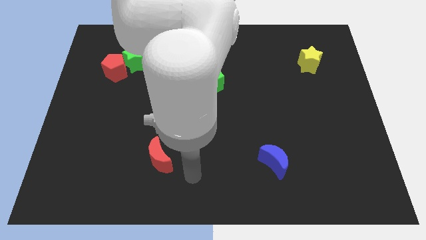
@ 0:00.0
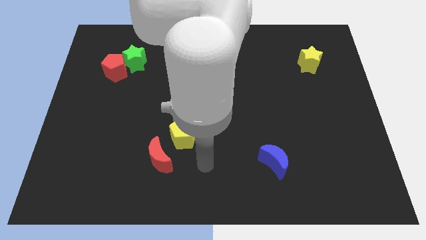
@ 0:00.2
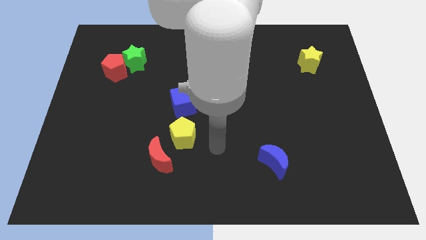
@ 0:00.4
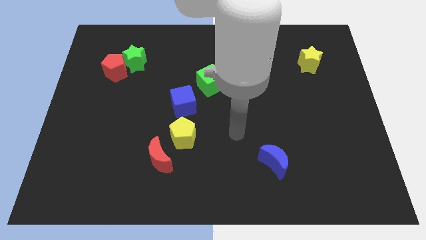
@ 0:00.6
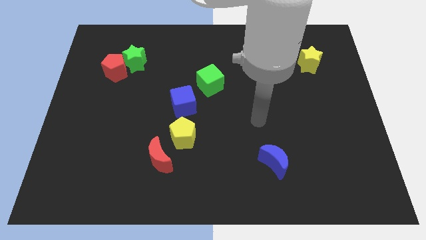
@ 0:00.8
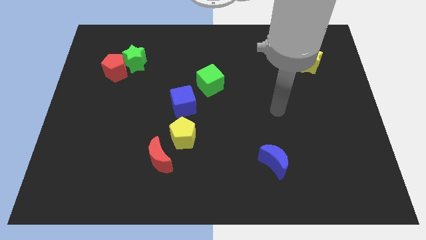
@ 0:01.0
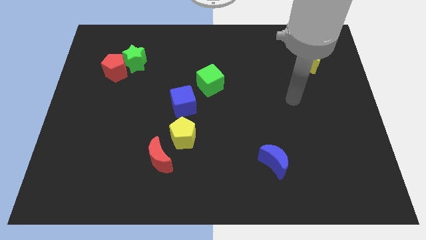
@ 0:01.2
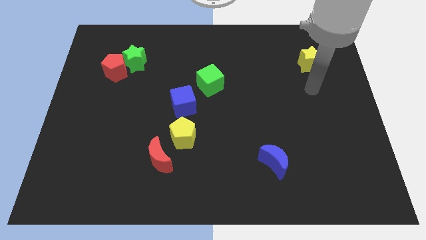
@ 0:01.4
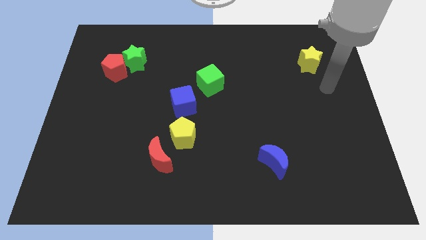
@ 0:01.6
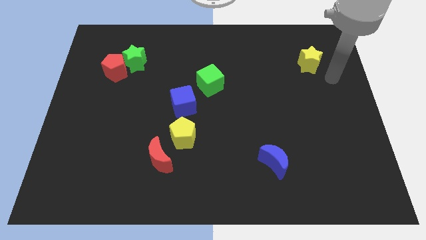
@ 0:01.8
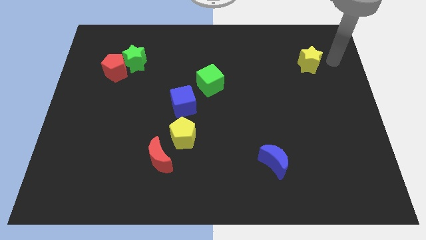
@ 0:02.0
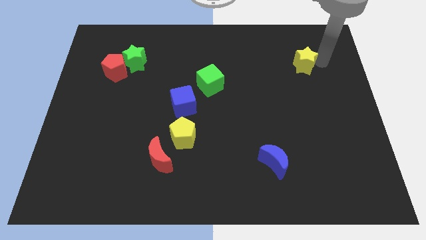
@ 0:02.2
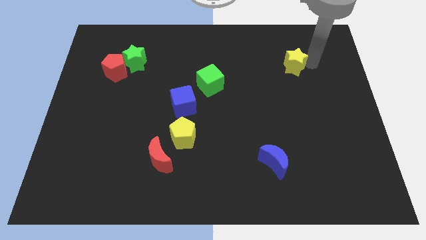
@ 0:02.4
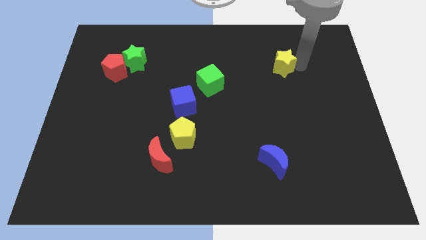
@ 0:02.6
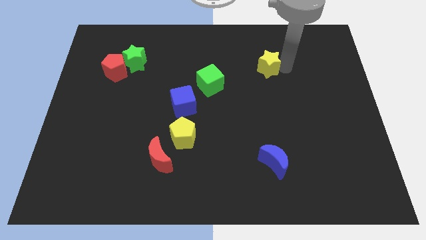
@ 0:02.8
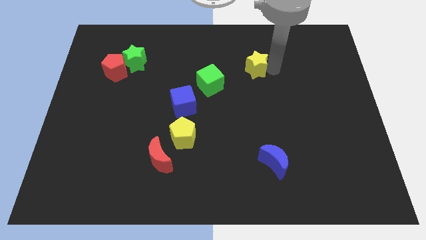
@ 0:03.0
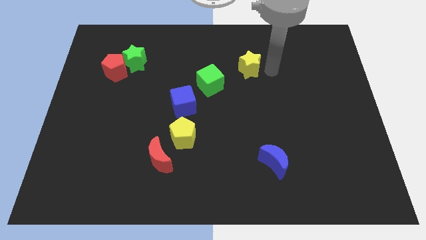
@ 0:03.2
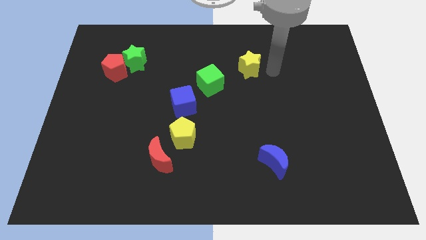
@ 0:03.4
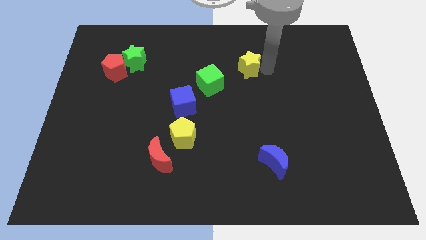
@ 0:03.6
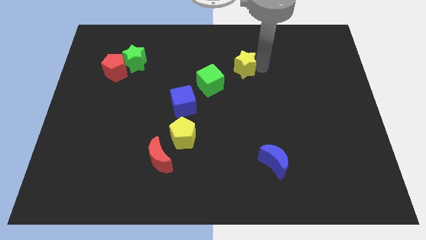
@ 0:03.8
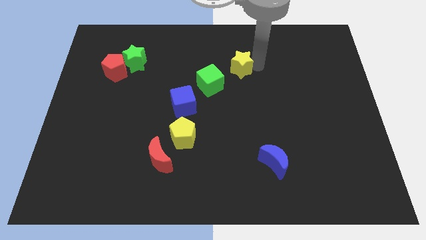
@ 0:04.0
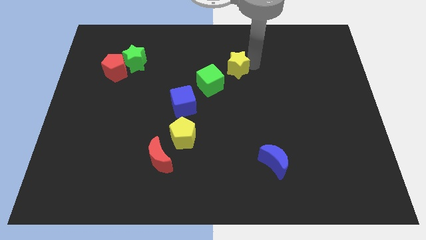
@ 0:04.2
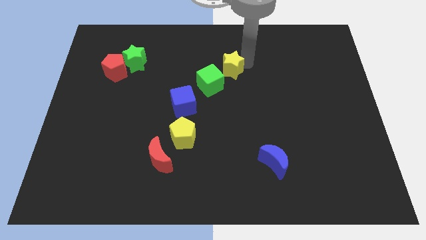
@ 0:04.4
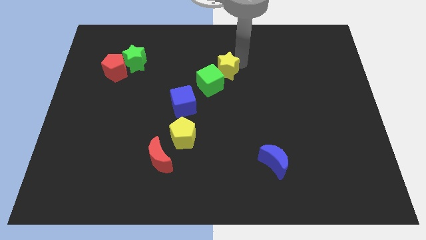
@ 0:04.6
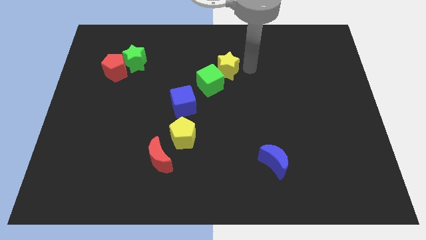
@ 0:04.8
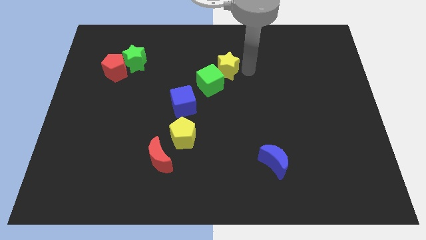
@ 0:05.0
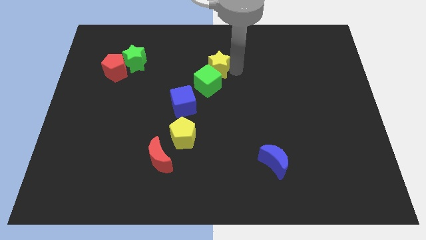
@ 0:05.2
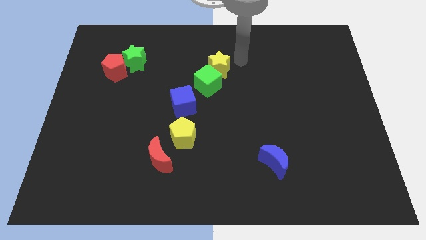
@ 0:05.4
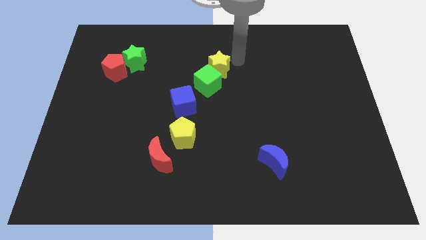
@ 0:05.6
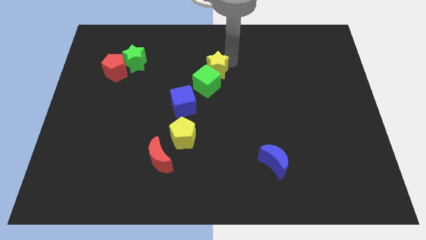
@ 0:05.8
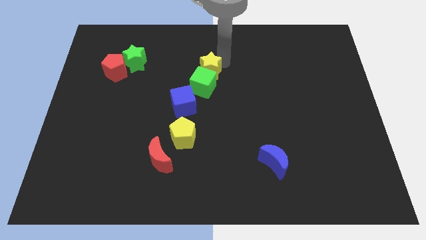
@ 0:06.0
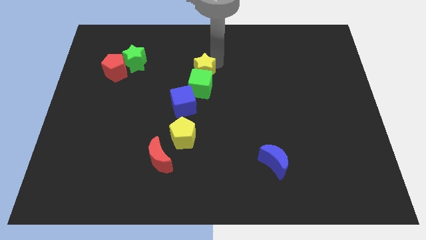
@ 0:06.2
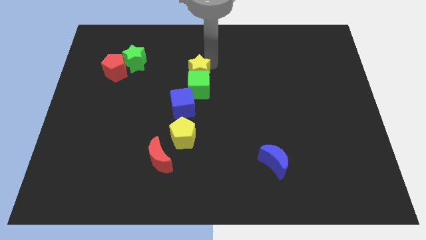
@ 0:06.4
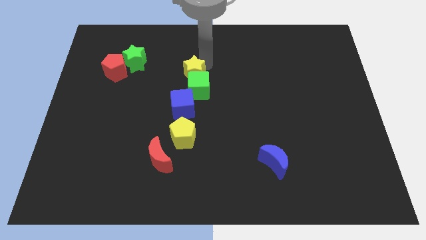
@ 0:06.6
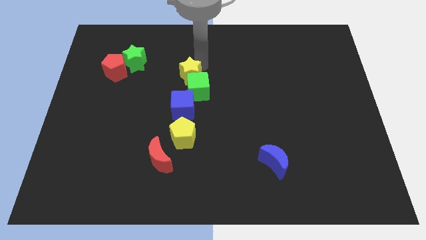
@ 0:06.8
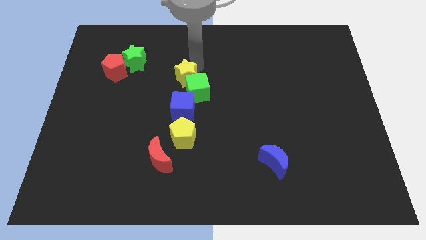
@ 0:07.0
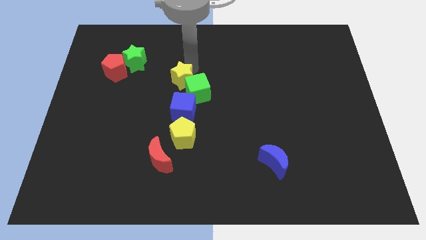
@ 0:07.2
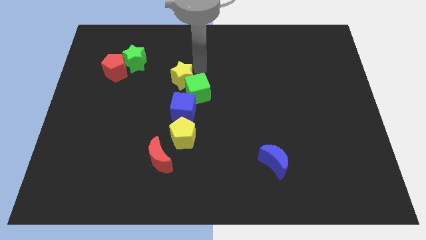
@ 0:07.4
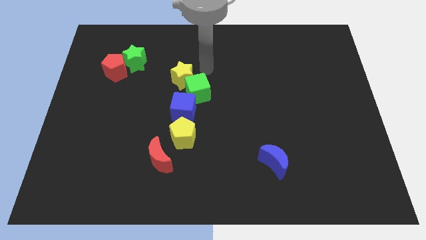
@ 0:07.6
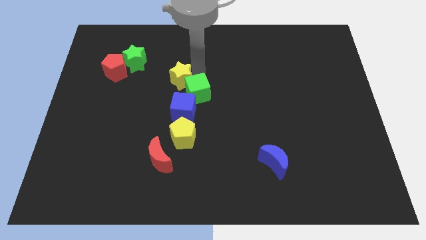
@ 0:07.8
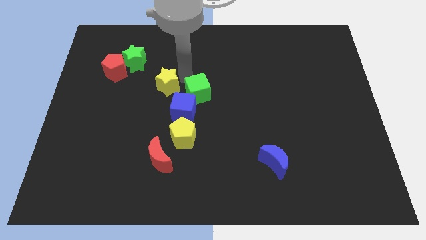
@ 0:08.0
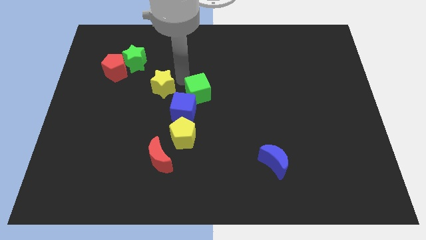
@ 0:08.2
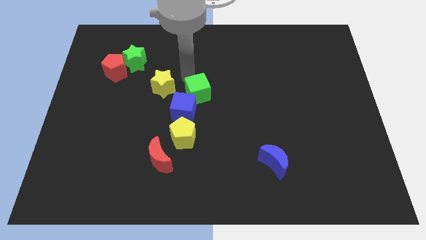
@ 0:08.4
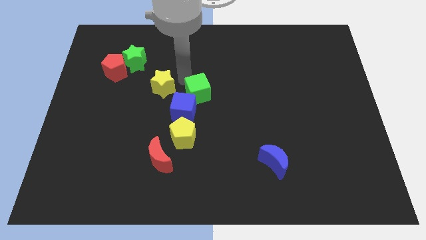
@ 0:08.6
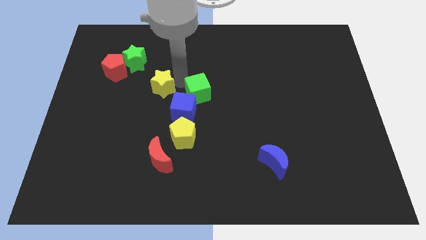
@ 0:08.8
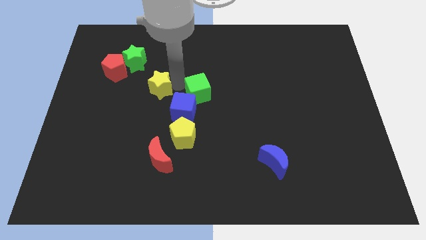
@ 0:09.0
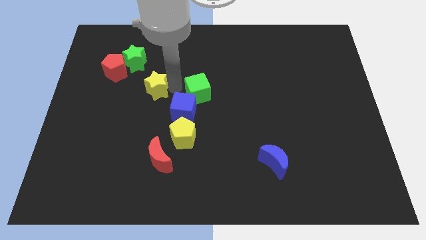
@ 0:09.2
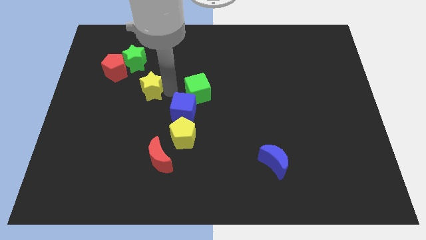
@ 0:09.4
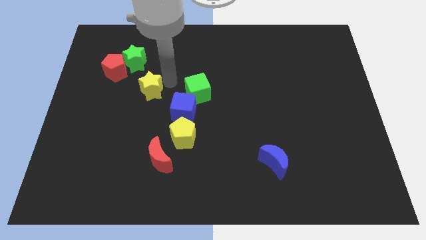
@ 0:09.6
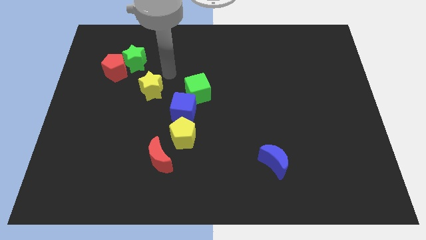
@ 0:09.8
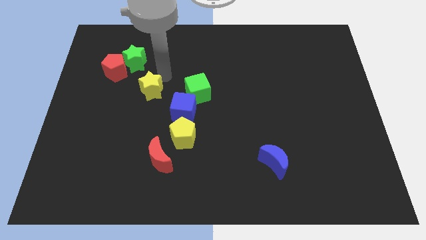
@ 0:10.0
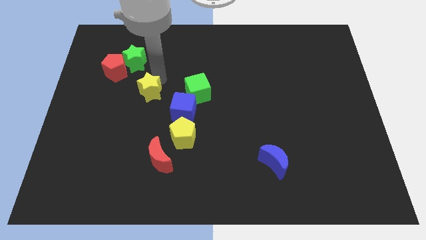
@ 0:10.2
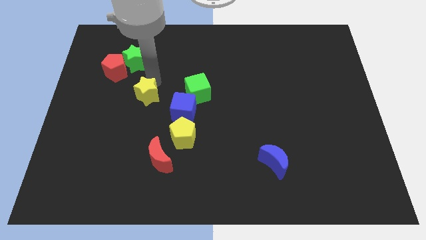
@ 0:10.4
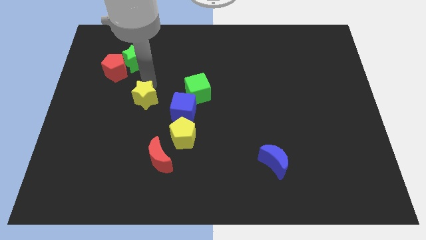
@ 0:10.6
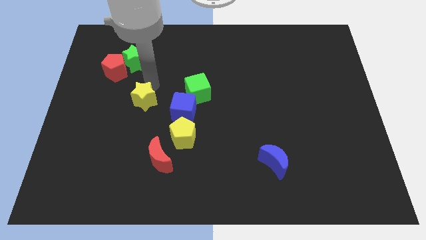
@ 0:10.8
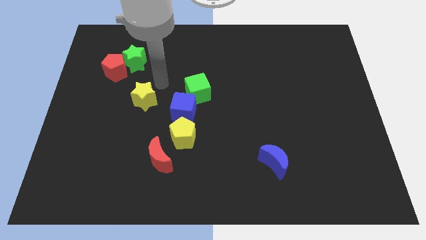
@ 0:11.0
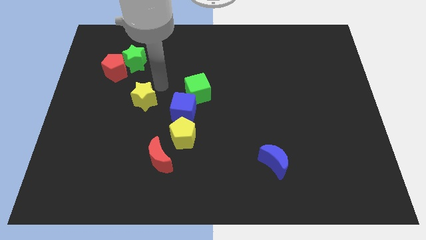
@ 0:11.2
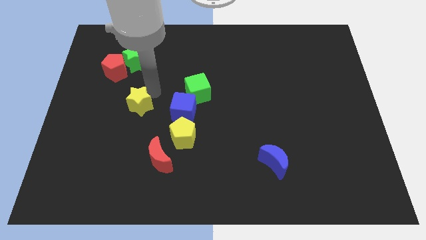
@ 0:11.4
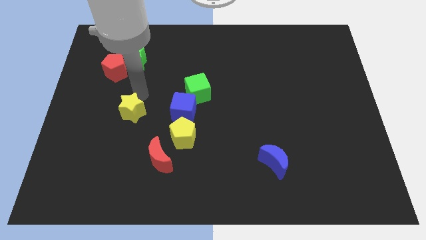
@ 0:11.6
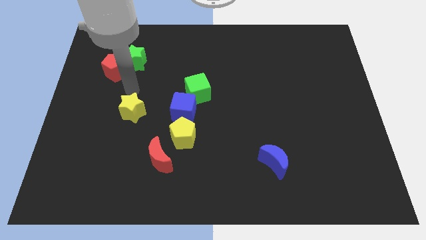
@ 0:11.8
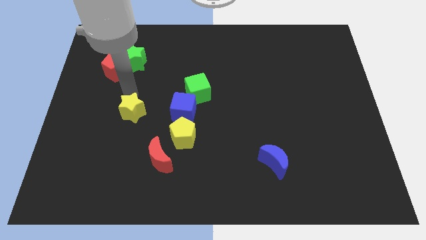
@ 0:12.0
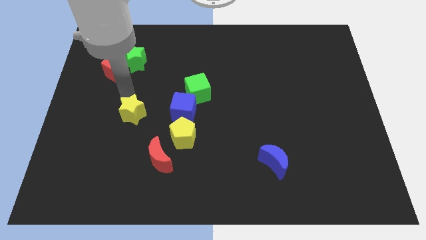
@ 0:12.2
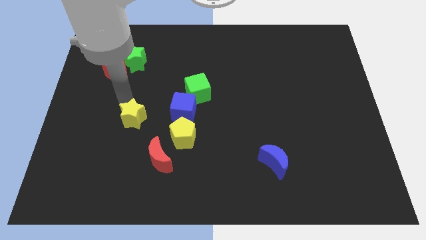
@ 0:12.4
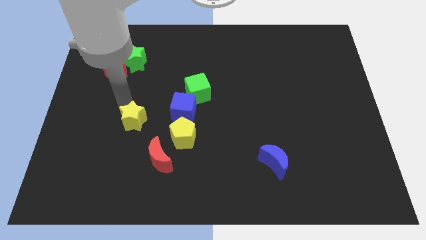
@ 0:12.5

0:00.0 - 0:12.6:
slide the yellow star just left of the yellow pentagon

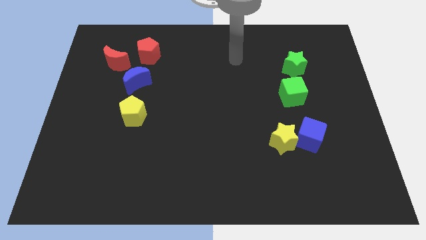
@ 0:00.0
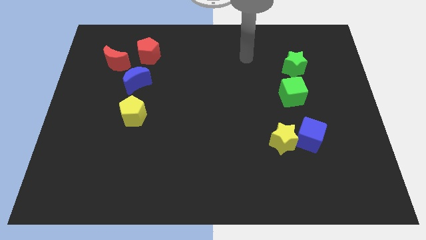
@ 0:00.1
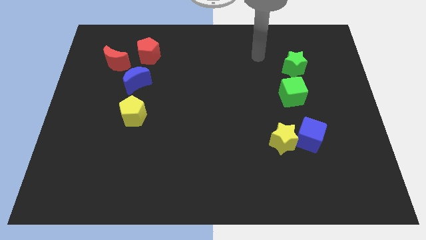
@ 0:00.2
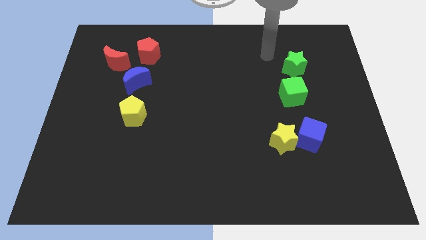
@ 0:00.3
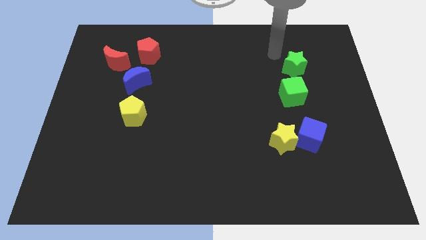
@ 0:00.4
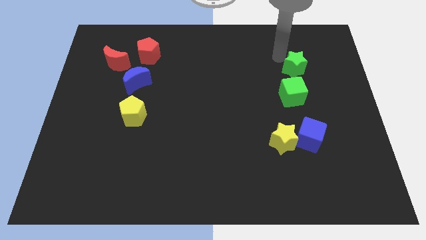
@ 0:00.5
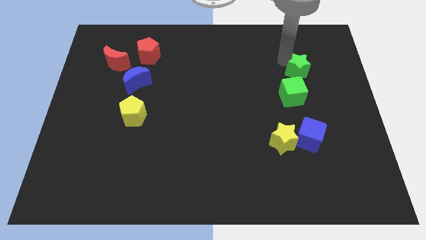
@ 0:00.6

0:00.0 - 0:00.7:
put the green star diagonally up and to the right of the green cube
